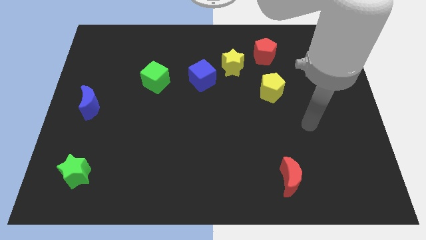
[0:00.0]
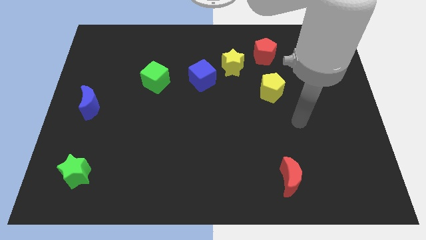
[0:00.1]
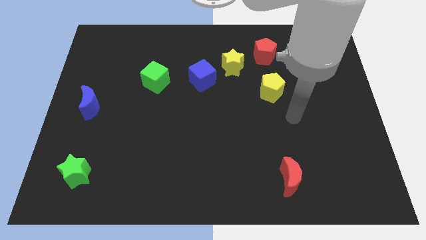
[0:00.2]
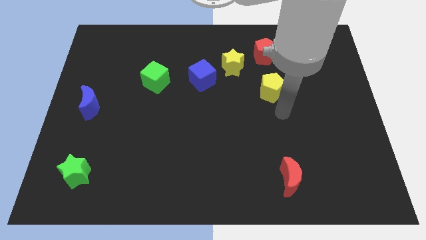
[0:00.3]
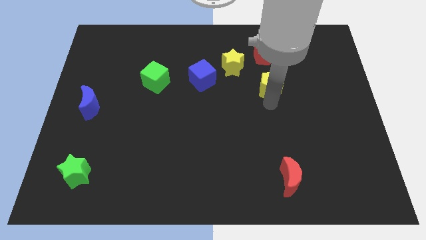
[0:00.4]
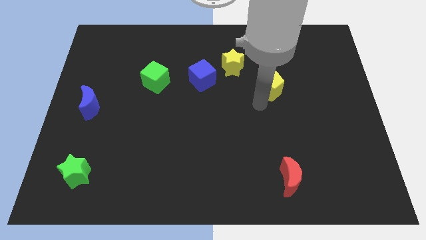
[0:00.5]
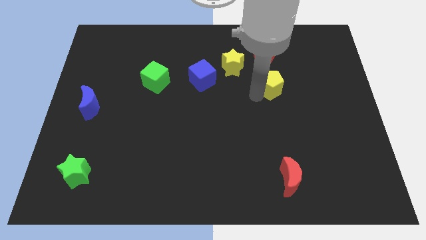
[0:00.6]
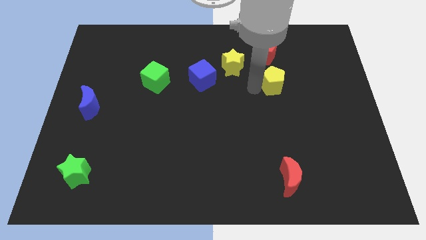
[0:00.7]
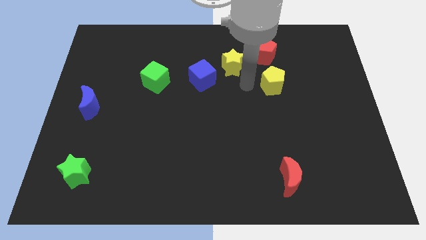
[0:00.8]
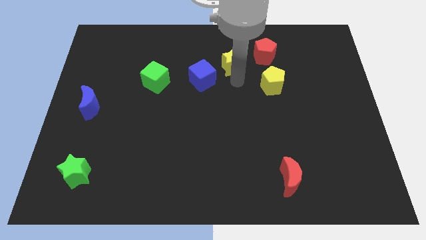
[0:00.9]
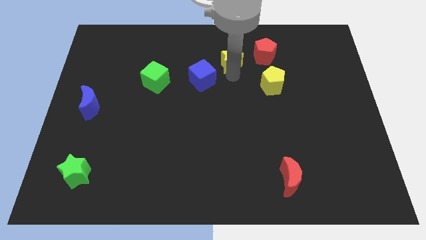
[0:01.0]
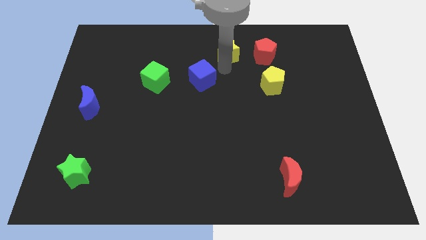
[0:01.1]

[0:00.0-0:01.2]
pull the blue cube apart from the yellow star

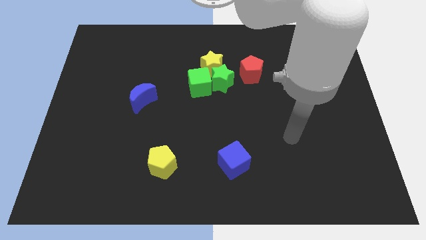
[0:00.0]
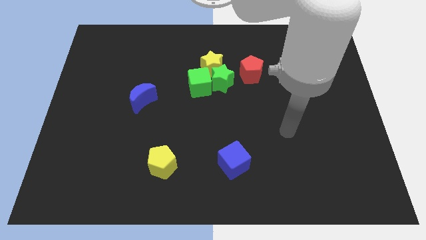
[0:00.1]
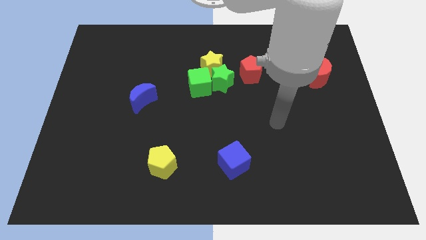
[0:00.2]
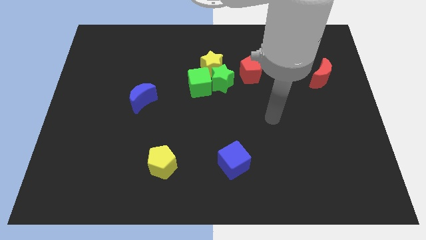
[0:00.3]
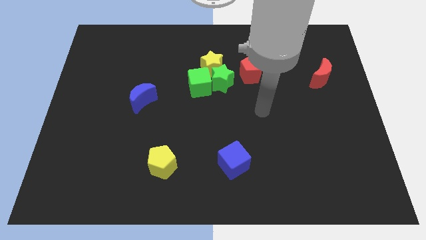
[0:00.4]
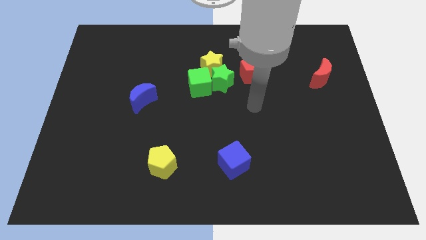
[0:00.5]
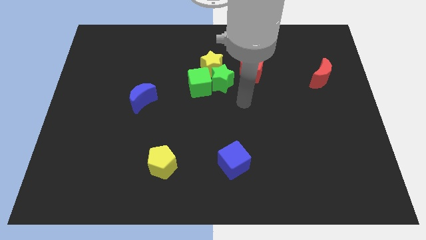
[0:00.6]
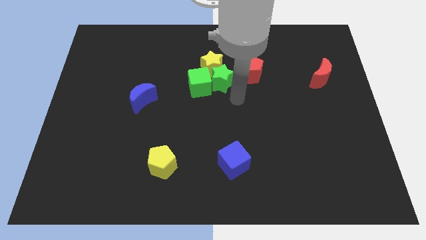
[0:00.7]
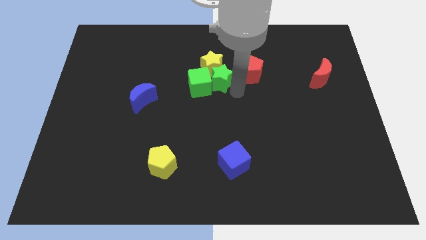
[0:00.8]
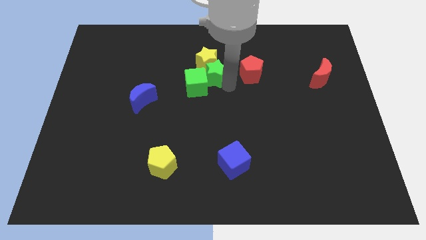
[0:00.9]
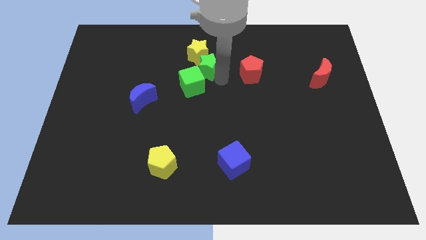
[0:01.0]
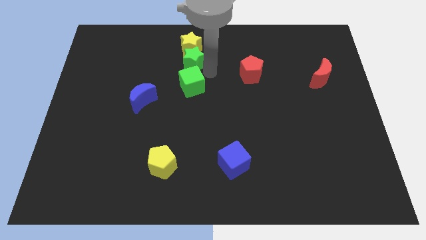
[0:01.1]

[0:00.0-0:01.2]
separate the green cube from the green star and yellow star

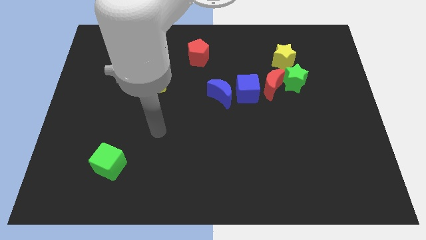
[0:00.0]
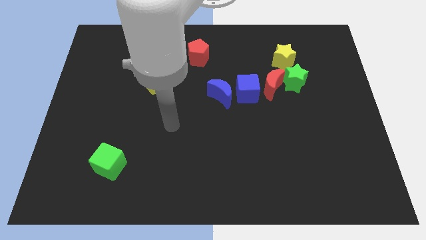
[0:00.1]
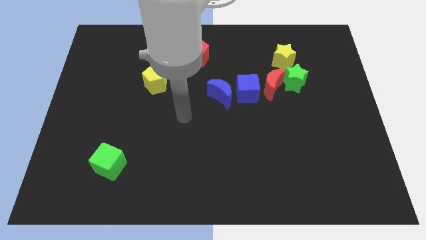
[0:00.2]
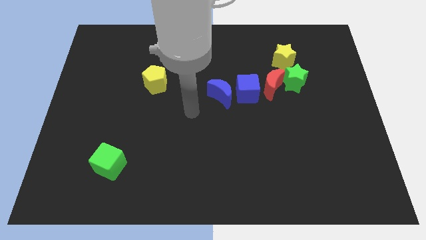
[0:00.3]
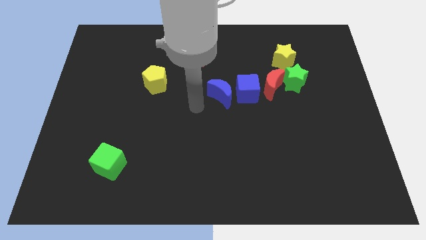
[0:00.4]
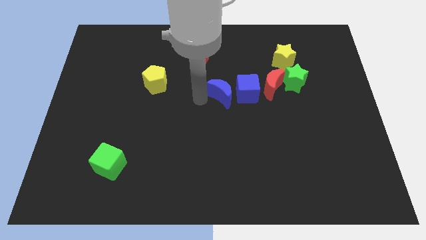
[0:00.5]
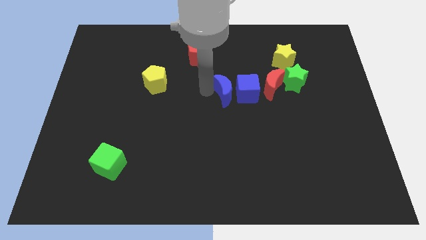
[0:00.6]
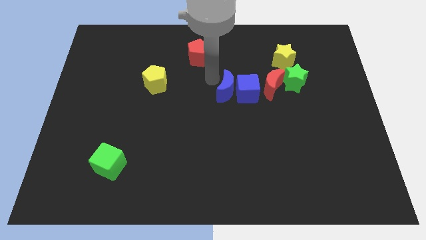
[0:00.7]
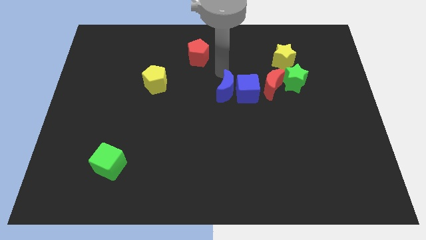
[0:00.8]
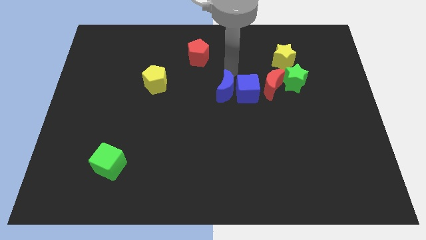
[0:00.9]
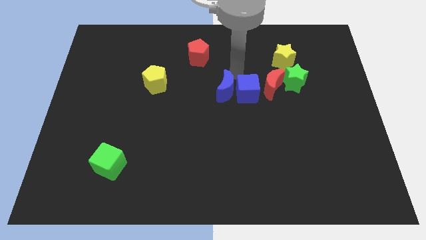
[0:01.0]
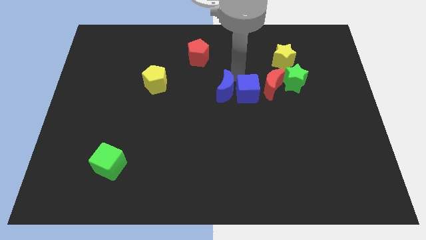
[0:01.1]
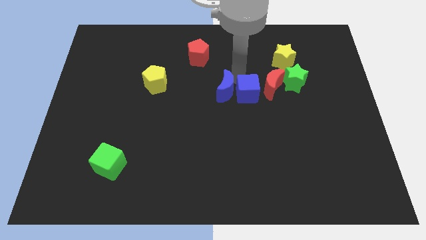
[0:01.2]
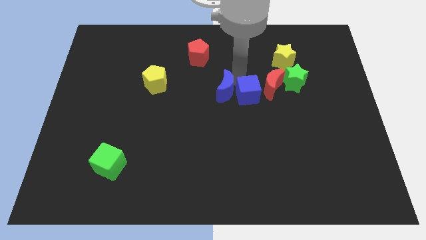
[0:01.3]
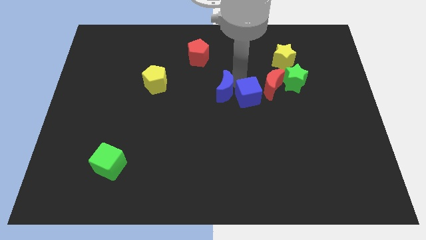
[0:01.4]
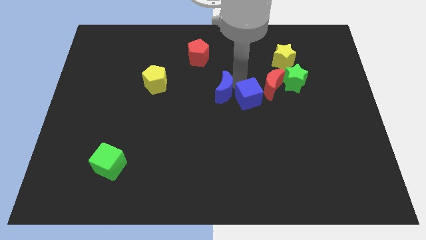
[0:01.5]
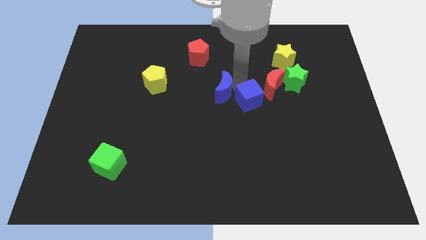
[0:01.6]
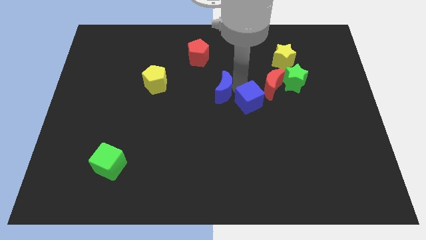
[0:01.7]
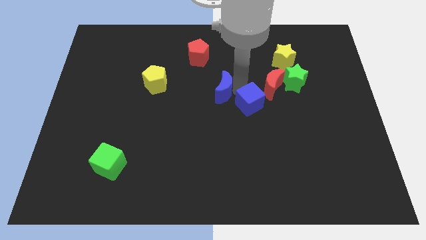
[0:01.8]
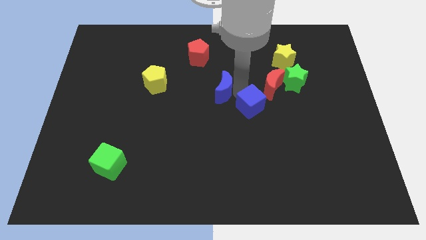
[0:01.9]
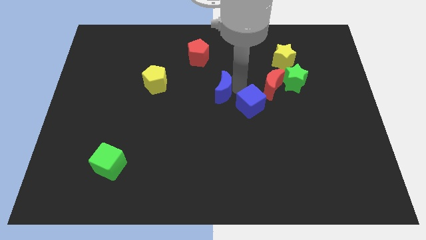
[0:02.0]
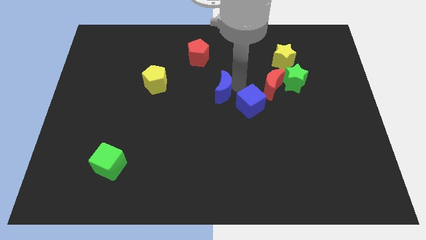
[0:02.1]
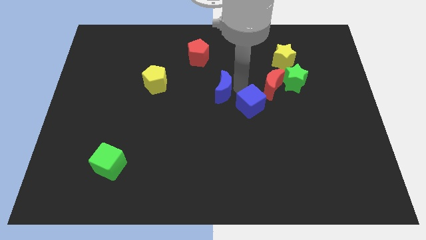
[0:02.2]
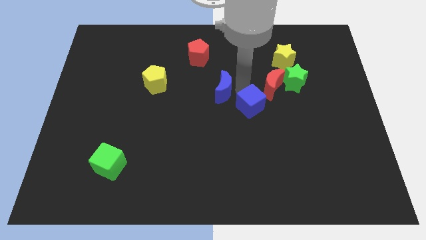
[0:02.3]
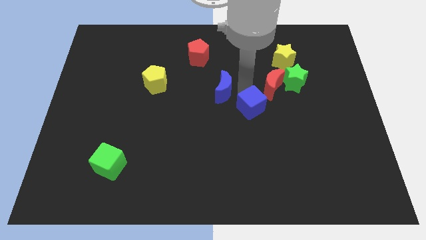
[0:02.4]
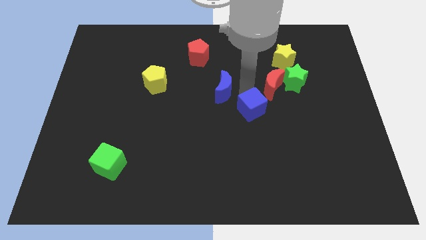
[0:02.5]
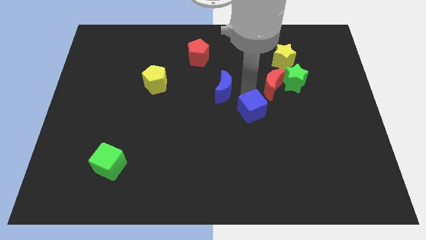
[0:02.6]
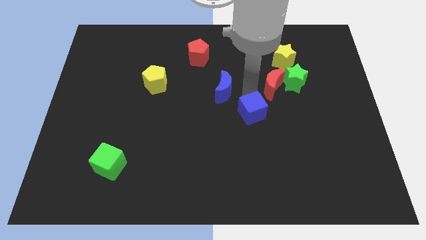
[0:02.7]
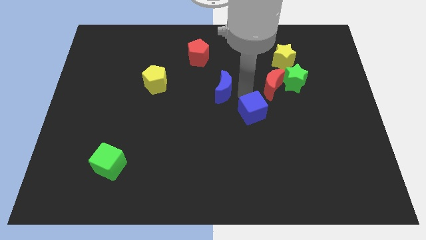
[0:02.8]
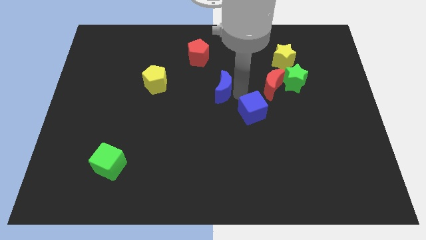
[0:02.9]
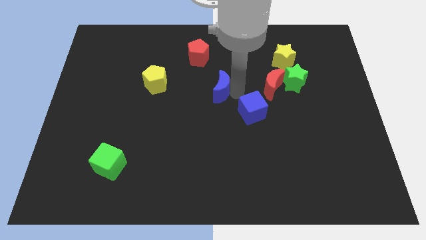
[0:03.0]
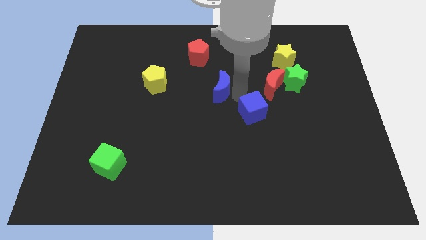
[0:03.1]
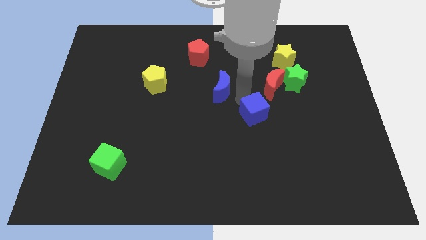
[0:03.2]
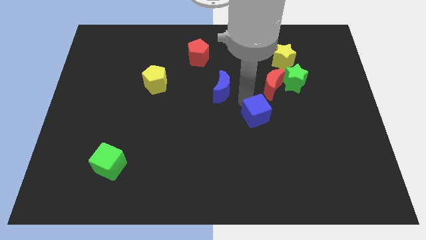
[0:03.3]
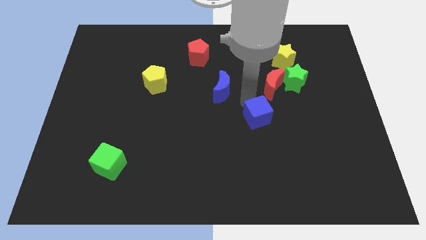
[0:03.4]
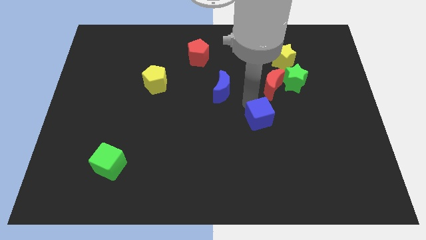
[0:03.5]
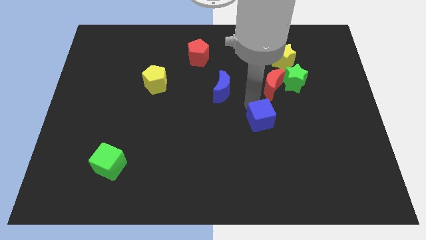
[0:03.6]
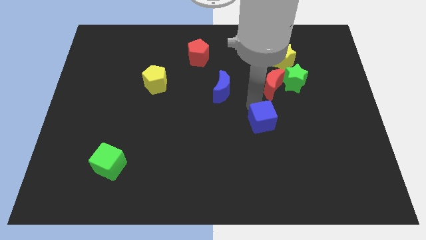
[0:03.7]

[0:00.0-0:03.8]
pull the blue cube apart from the red moon and blue moon

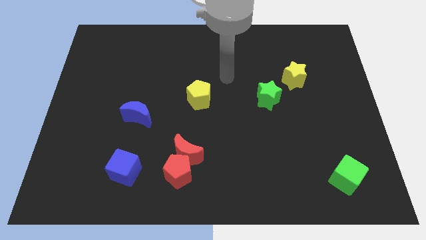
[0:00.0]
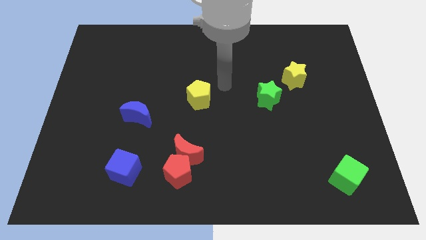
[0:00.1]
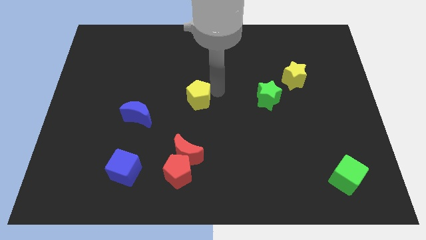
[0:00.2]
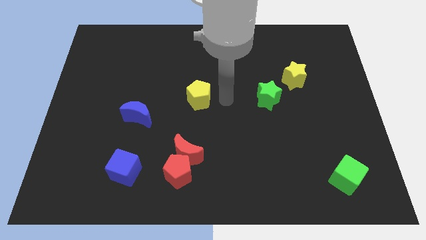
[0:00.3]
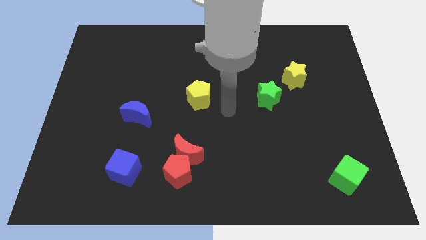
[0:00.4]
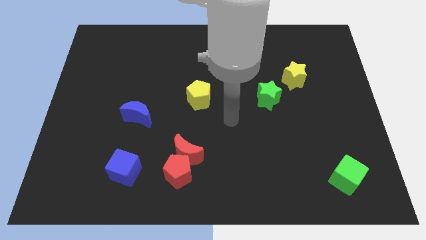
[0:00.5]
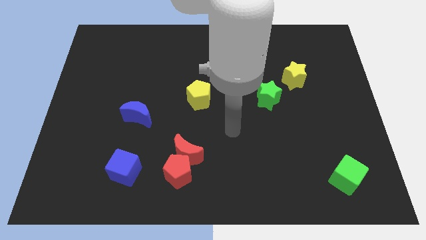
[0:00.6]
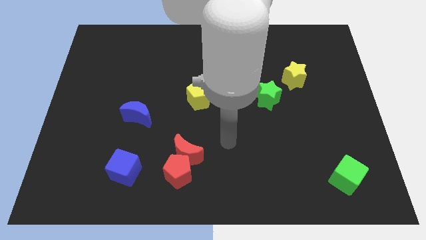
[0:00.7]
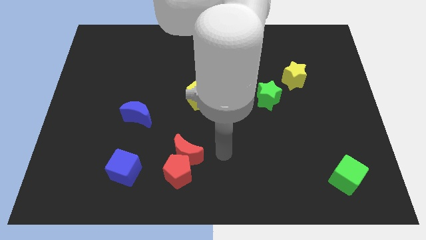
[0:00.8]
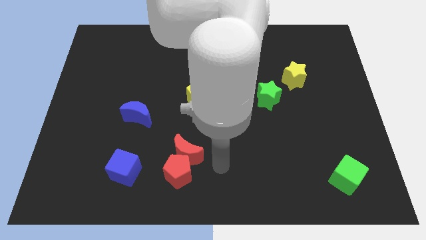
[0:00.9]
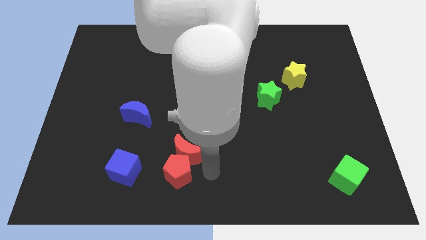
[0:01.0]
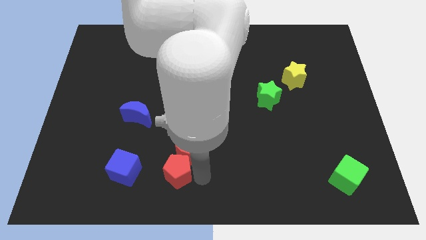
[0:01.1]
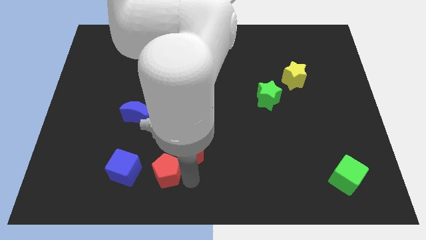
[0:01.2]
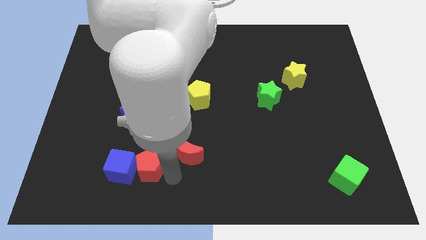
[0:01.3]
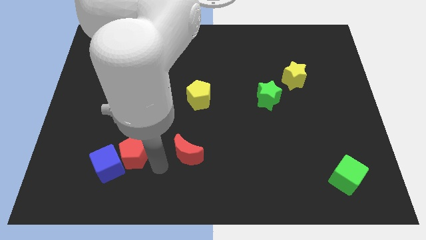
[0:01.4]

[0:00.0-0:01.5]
move the red moon away from the red pentagon

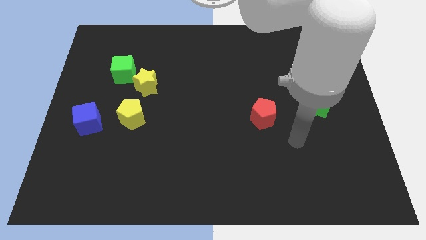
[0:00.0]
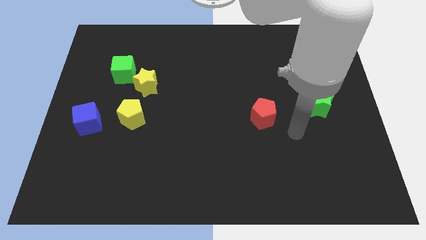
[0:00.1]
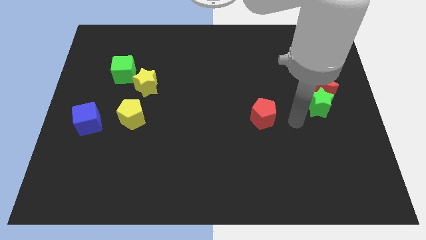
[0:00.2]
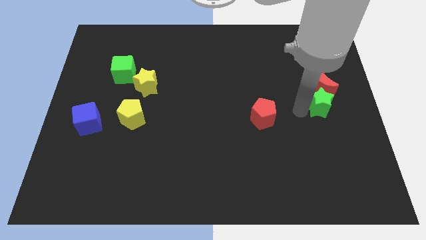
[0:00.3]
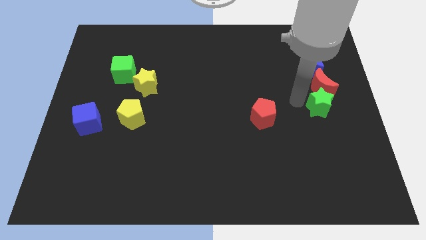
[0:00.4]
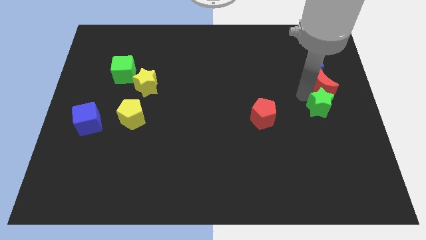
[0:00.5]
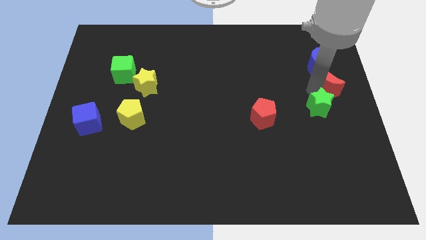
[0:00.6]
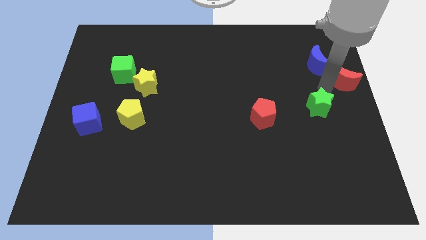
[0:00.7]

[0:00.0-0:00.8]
pull the green star apart from the red moon

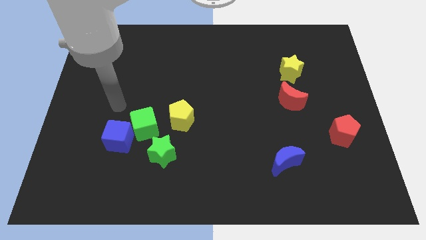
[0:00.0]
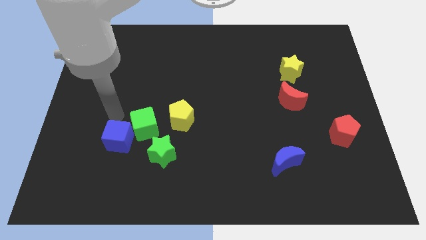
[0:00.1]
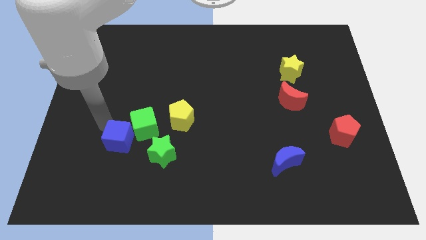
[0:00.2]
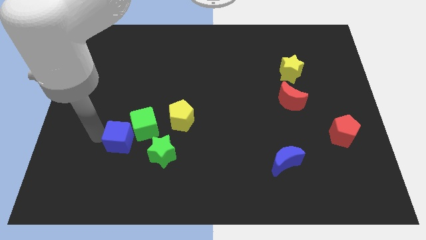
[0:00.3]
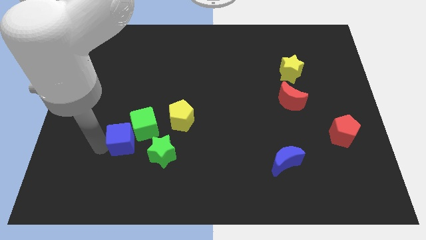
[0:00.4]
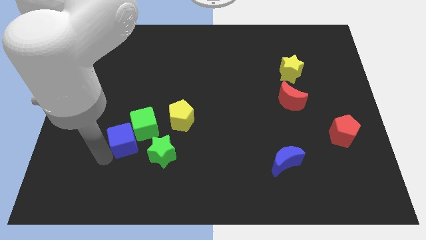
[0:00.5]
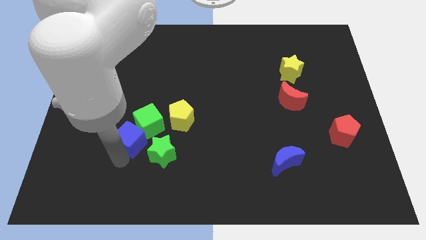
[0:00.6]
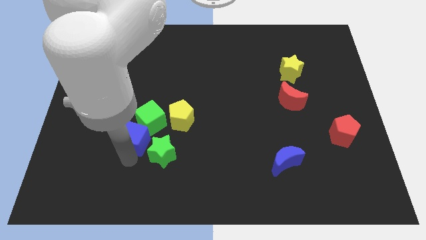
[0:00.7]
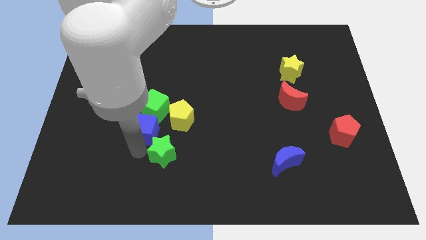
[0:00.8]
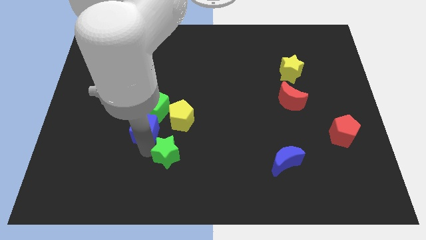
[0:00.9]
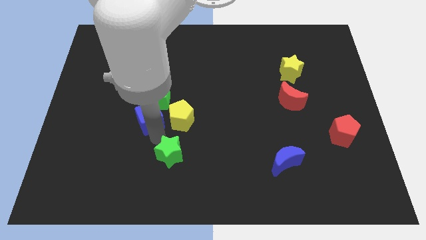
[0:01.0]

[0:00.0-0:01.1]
move the green cube away from the clump
